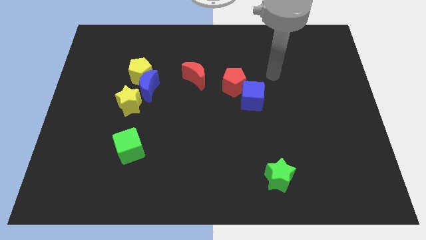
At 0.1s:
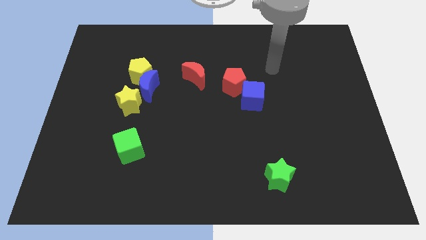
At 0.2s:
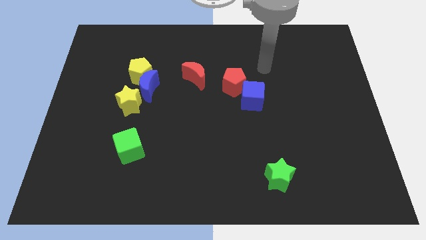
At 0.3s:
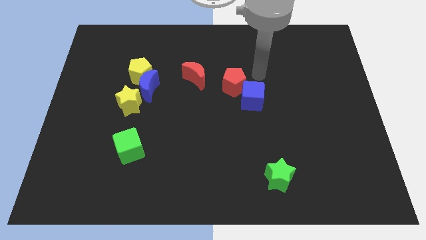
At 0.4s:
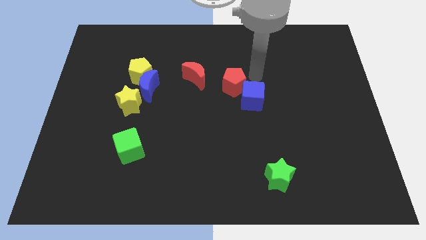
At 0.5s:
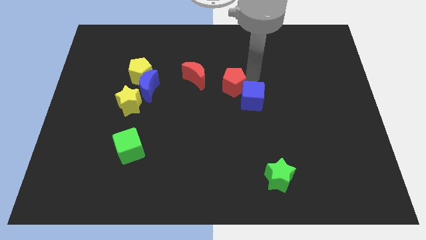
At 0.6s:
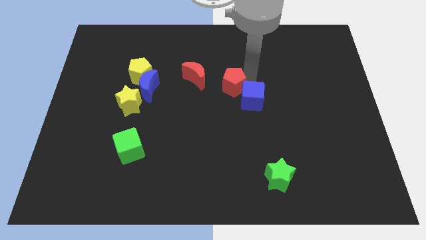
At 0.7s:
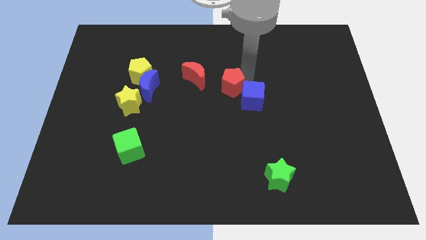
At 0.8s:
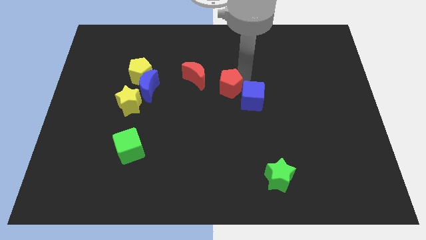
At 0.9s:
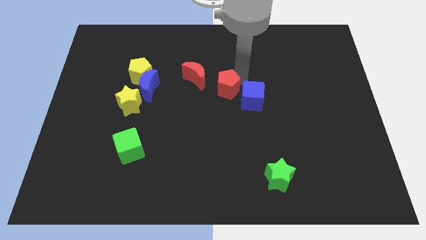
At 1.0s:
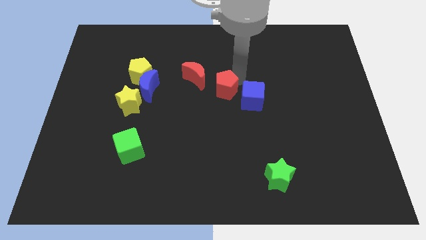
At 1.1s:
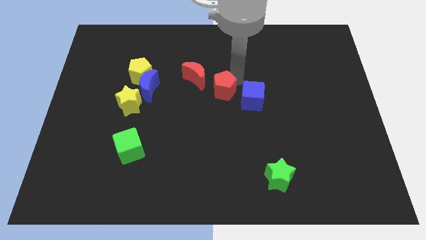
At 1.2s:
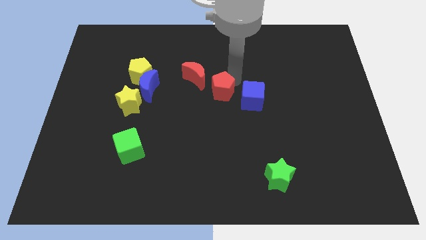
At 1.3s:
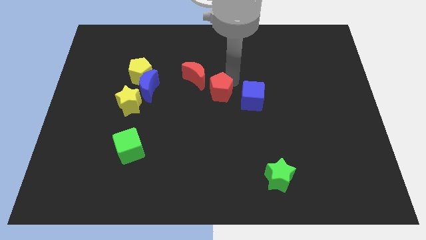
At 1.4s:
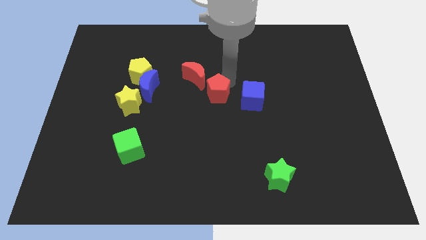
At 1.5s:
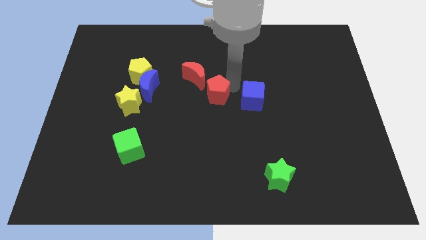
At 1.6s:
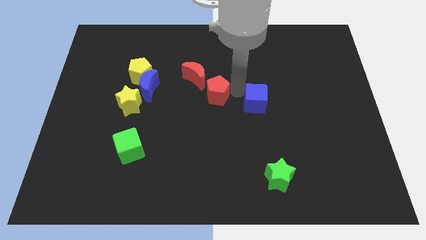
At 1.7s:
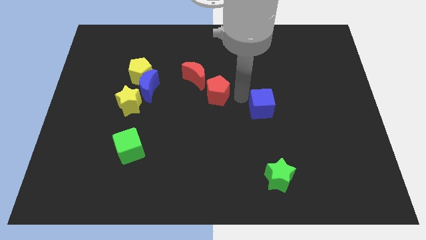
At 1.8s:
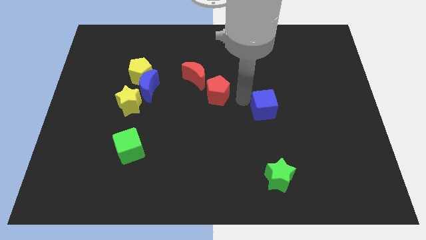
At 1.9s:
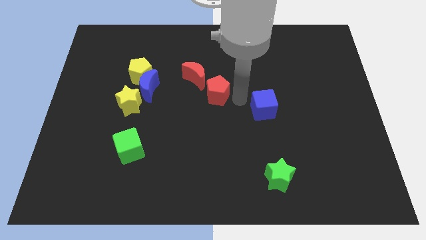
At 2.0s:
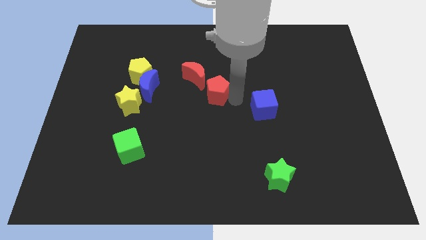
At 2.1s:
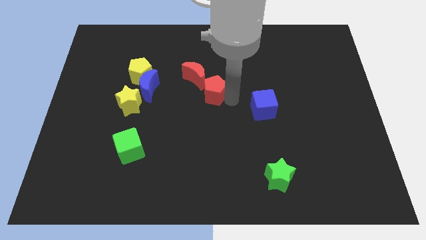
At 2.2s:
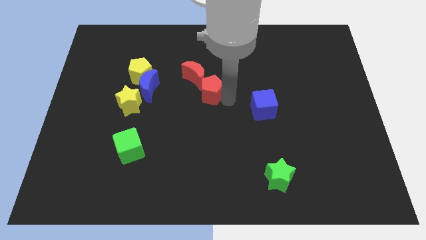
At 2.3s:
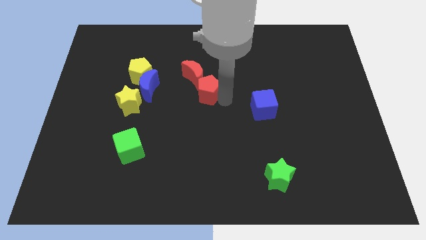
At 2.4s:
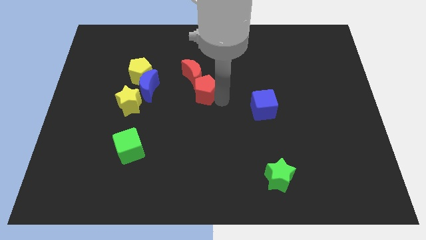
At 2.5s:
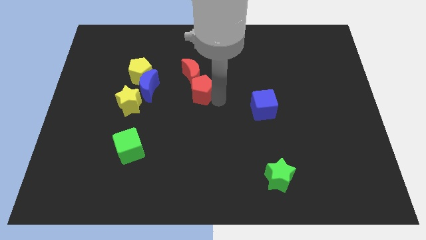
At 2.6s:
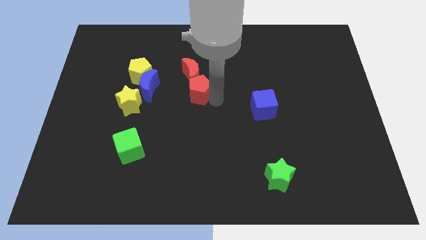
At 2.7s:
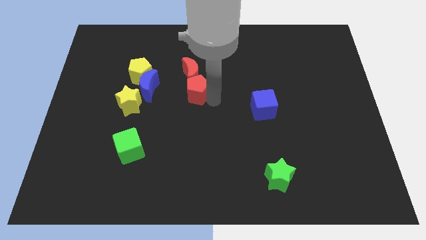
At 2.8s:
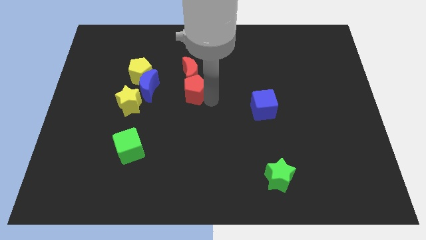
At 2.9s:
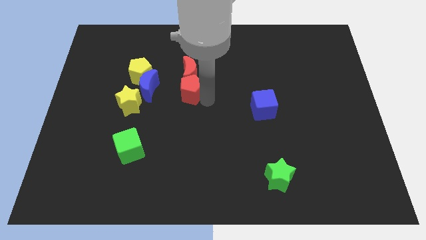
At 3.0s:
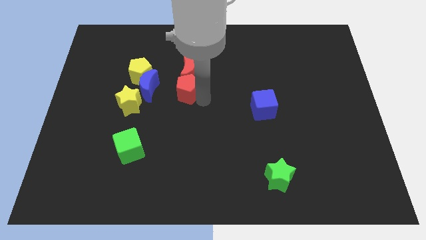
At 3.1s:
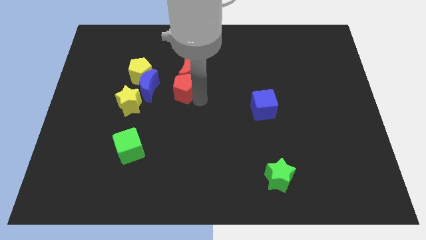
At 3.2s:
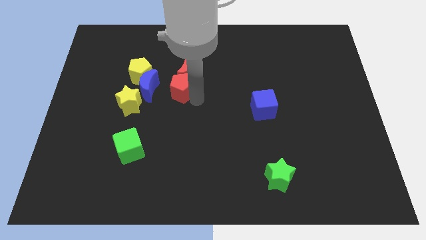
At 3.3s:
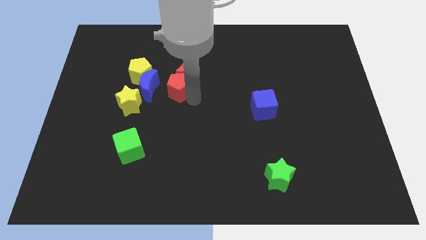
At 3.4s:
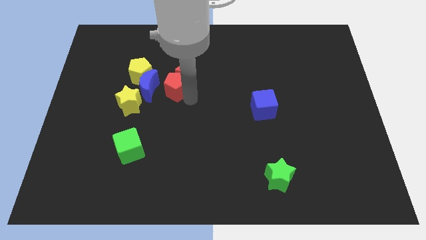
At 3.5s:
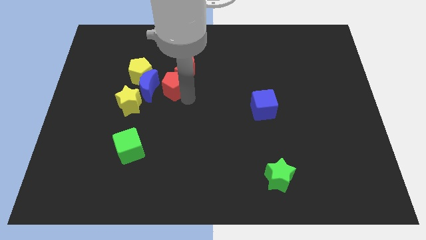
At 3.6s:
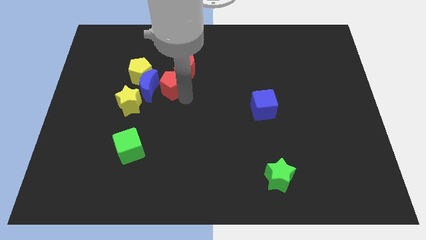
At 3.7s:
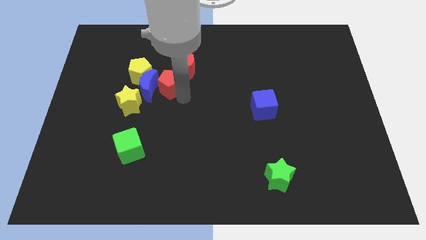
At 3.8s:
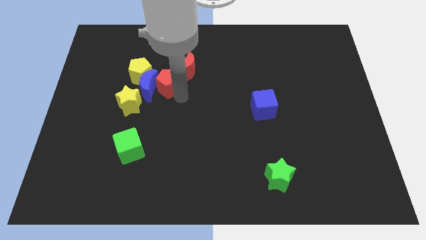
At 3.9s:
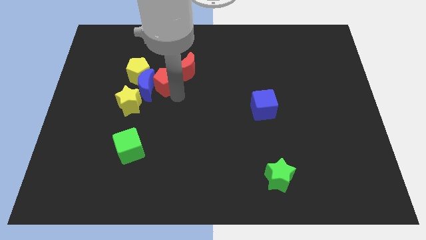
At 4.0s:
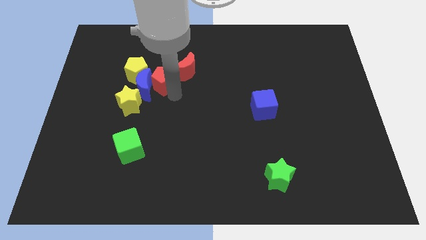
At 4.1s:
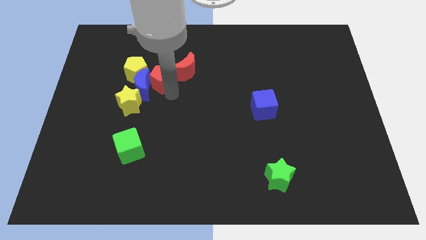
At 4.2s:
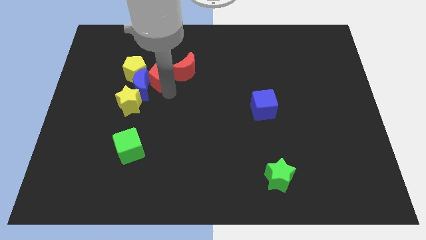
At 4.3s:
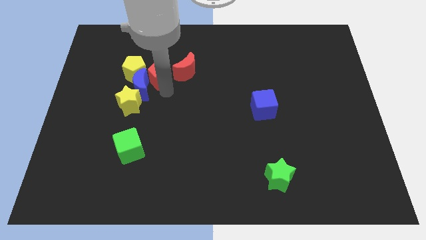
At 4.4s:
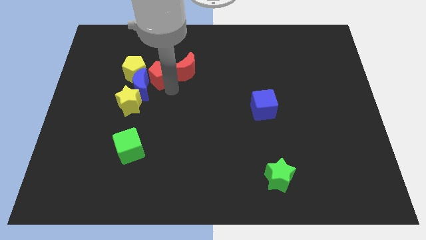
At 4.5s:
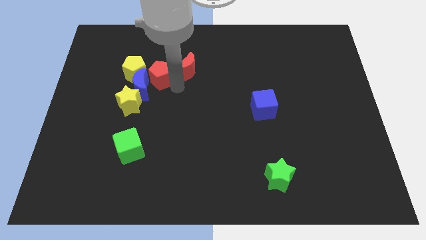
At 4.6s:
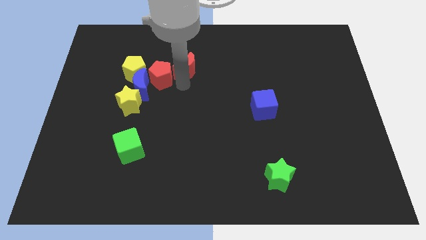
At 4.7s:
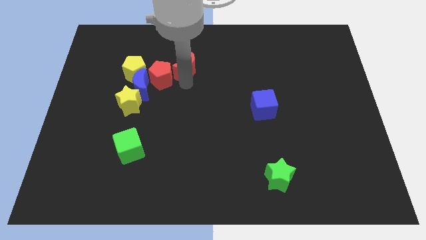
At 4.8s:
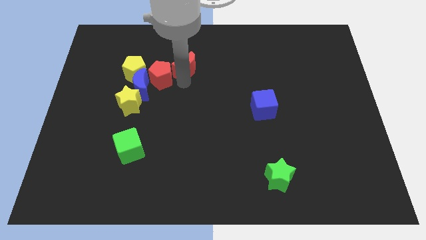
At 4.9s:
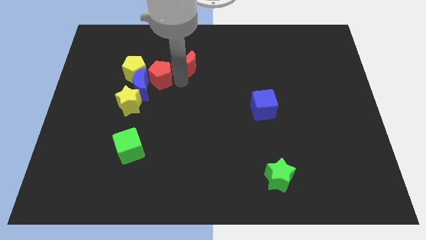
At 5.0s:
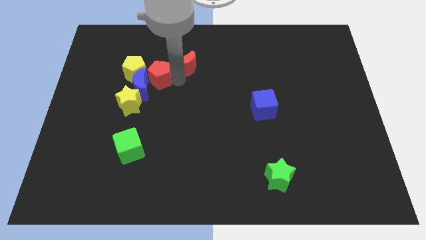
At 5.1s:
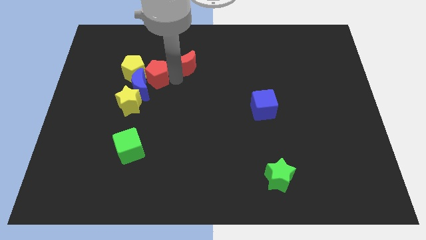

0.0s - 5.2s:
slide the red pentagon close to the yellow pentagon

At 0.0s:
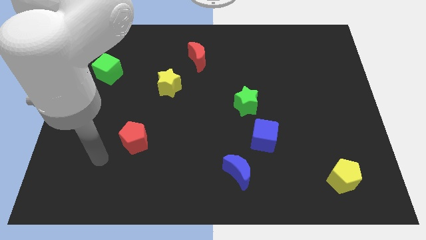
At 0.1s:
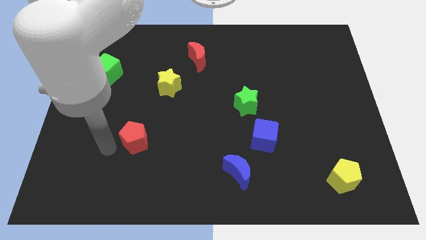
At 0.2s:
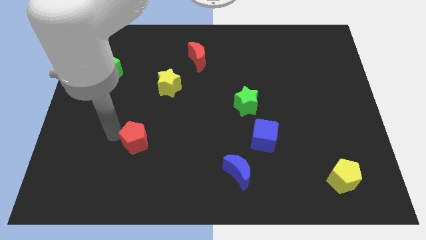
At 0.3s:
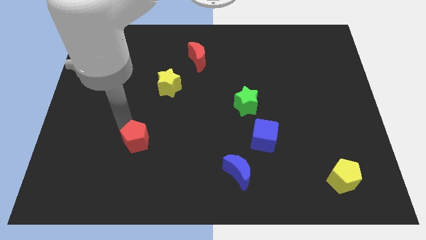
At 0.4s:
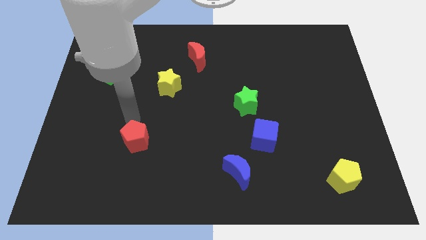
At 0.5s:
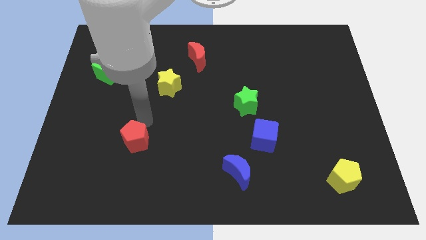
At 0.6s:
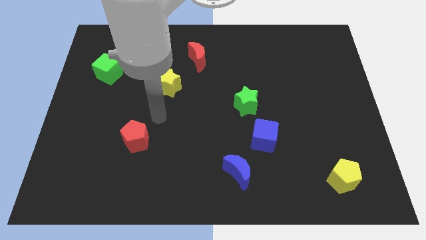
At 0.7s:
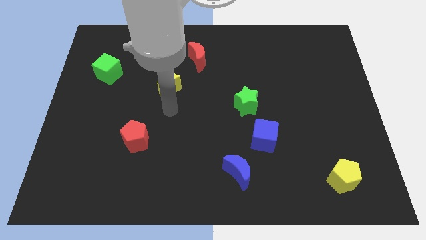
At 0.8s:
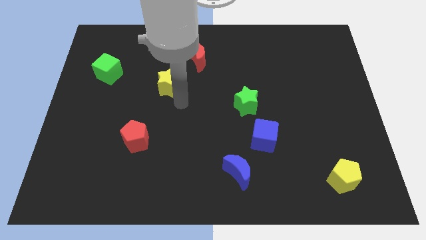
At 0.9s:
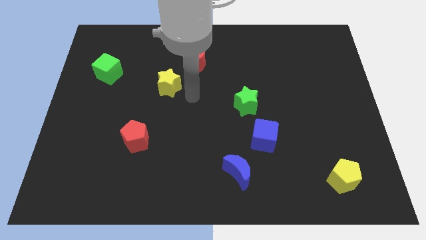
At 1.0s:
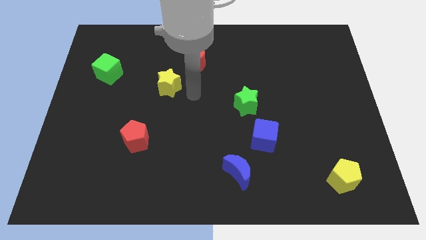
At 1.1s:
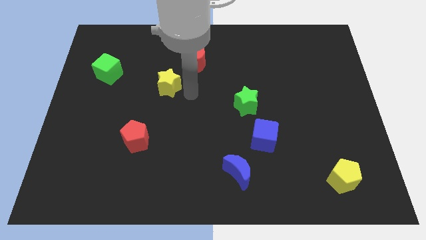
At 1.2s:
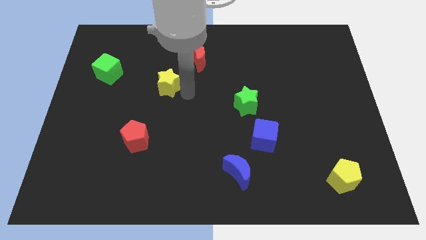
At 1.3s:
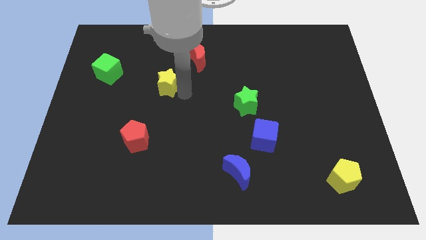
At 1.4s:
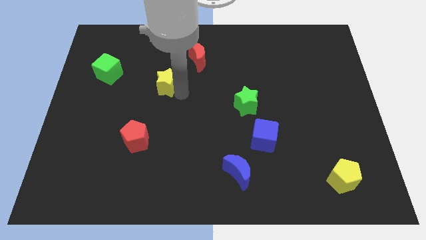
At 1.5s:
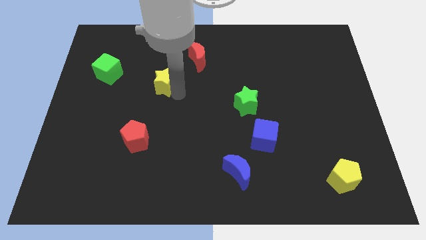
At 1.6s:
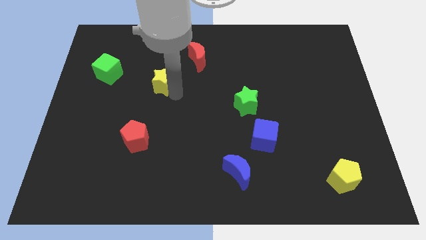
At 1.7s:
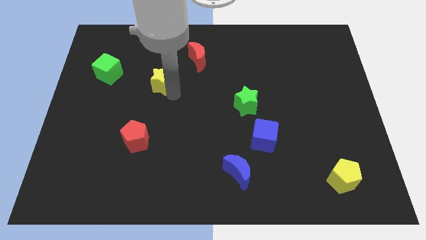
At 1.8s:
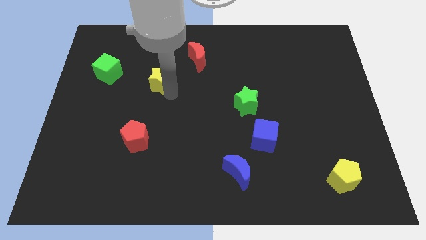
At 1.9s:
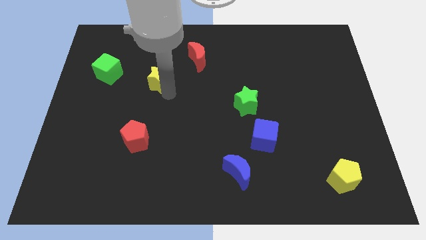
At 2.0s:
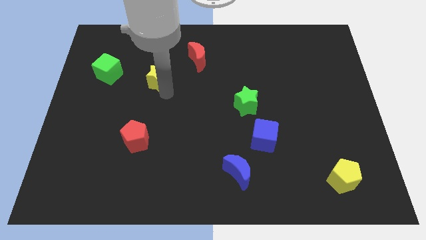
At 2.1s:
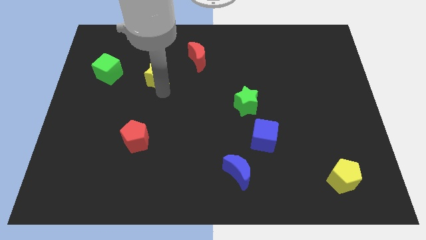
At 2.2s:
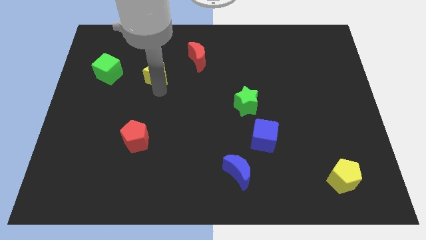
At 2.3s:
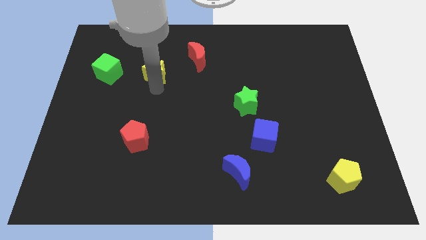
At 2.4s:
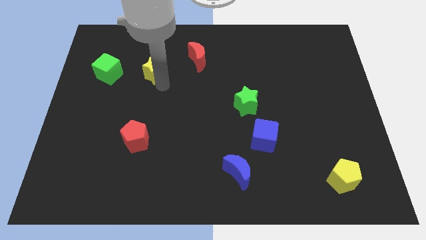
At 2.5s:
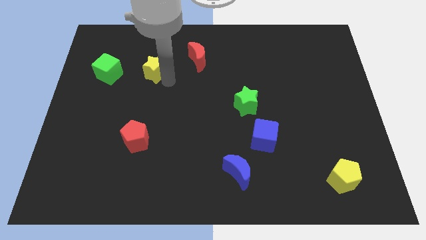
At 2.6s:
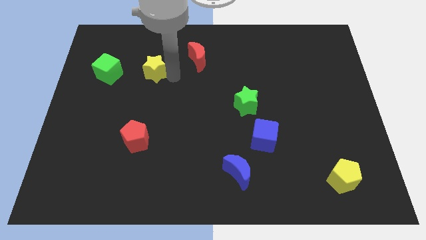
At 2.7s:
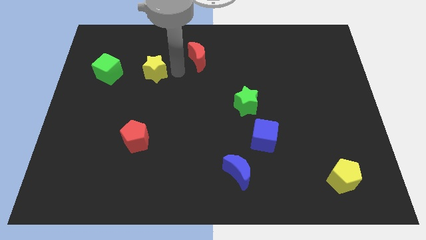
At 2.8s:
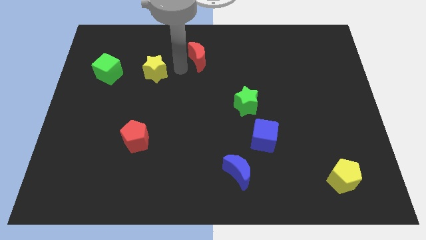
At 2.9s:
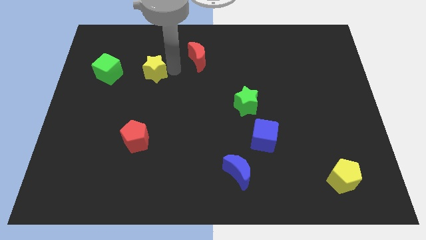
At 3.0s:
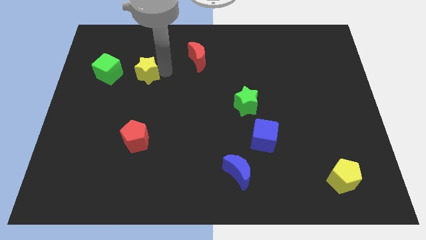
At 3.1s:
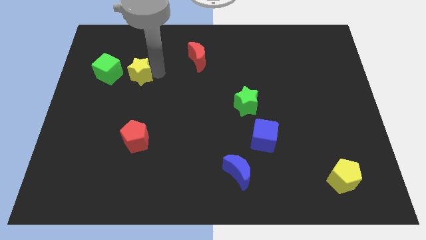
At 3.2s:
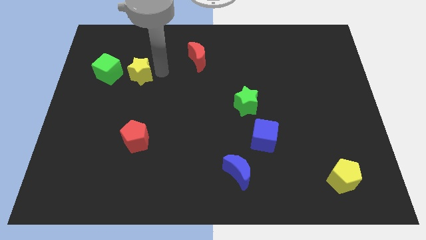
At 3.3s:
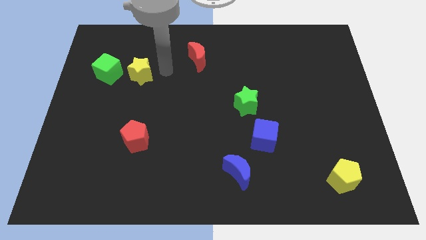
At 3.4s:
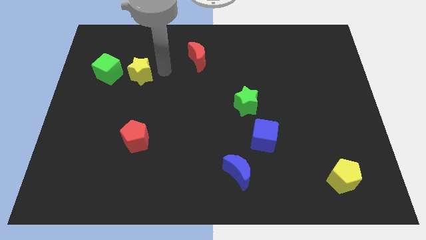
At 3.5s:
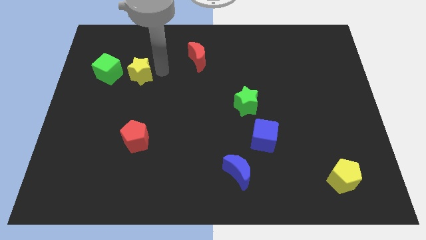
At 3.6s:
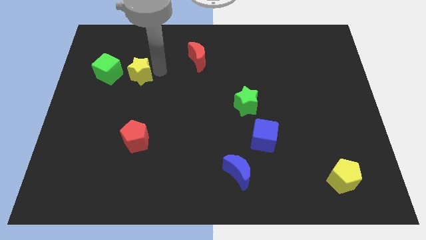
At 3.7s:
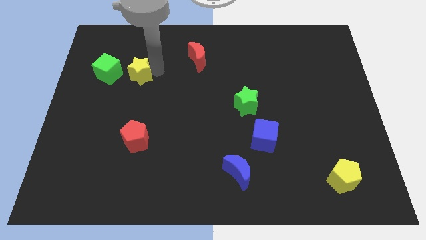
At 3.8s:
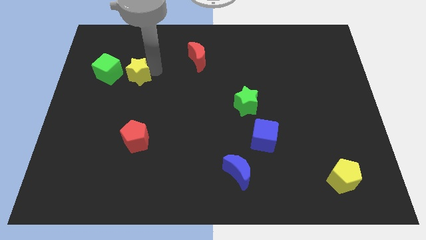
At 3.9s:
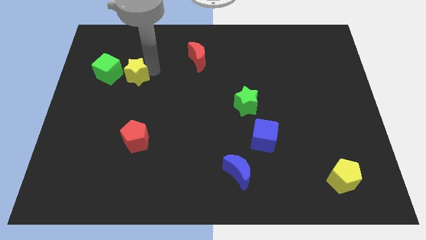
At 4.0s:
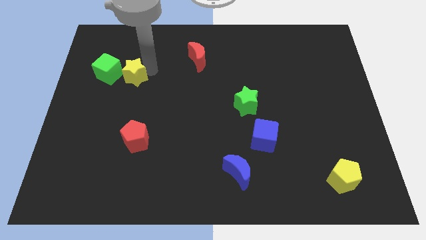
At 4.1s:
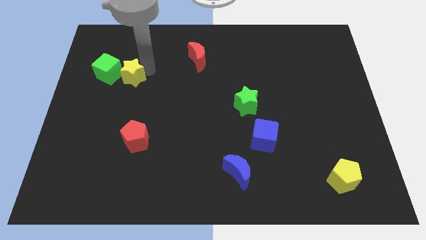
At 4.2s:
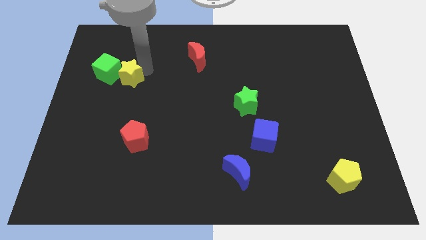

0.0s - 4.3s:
put the yellow star to the green cube
